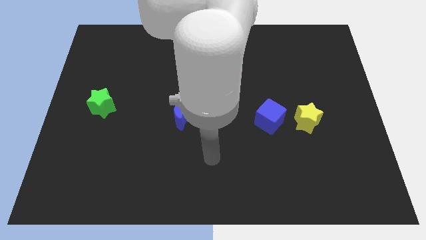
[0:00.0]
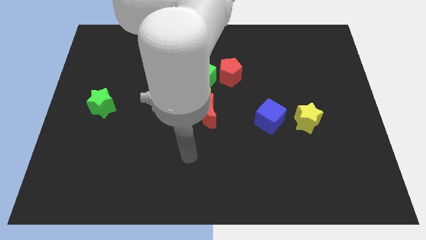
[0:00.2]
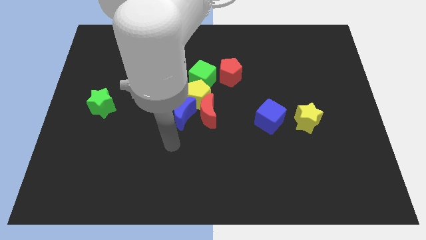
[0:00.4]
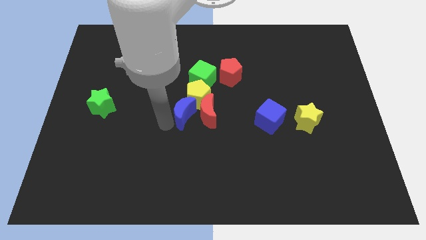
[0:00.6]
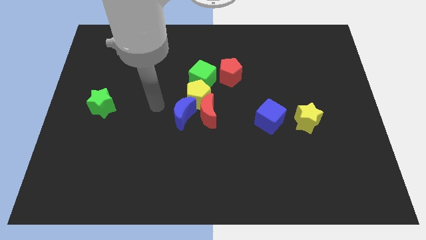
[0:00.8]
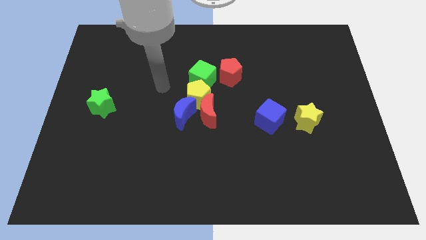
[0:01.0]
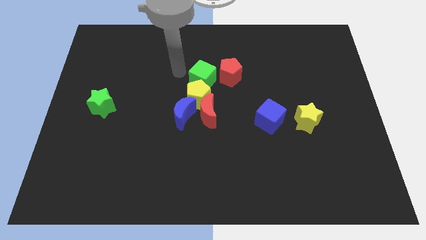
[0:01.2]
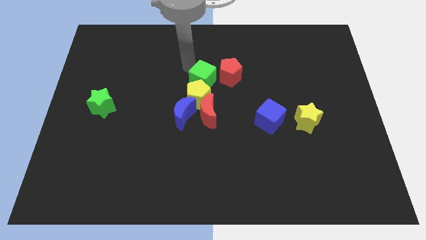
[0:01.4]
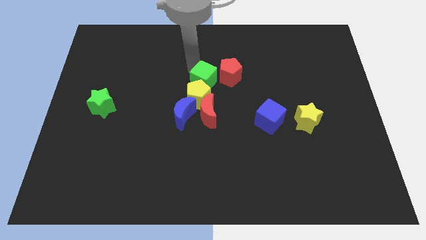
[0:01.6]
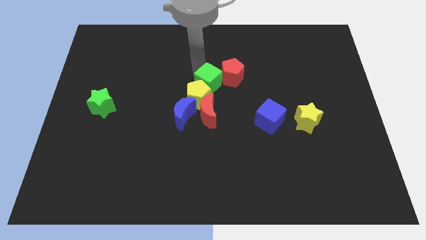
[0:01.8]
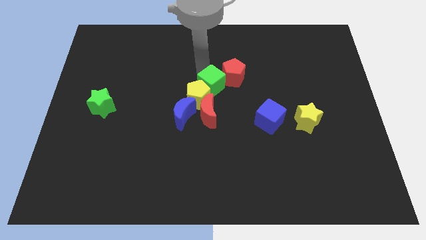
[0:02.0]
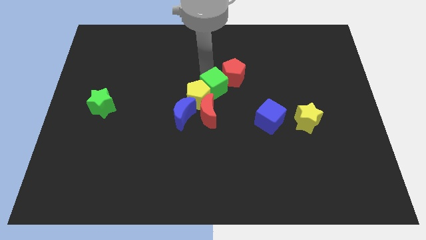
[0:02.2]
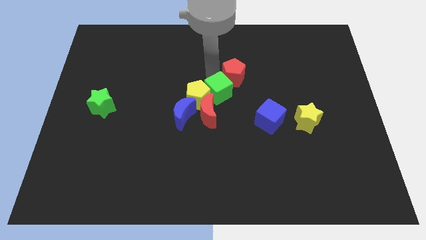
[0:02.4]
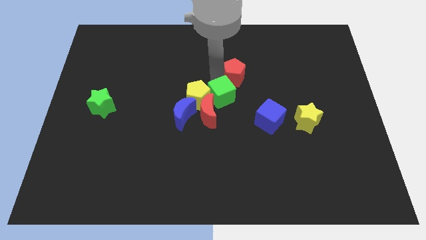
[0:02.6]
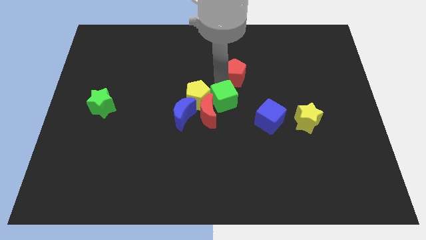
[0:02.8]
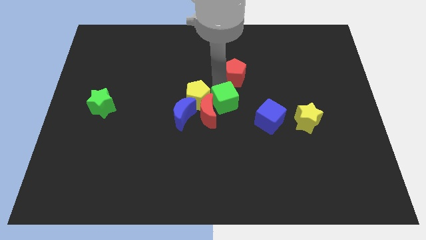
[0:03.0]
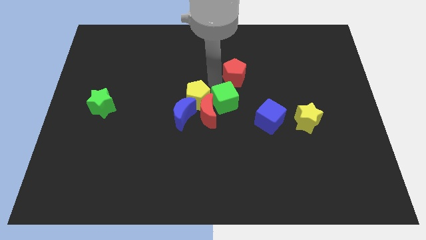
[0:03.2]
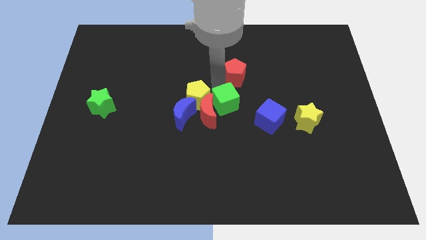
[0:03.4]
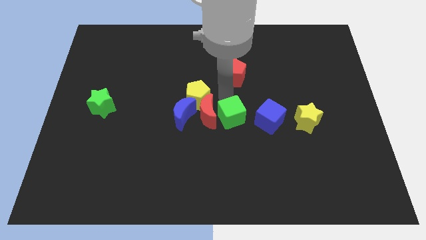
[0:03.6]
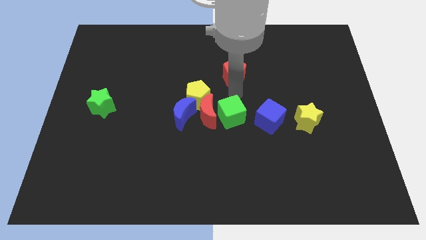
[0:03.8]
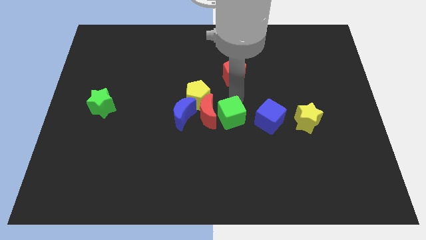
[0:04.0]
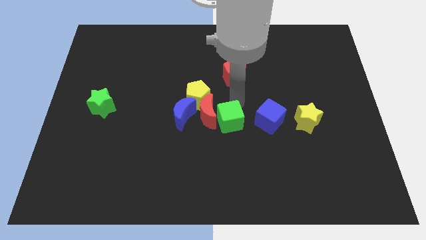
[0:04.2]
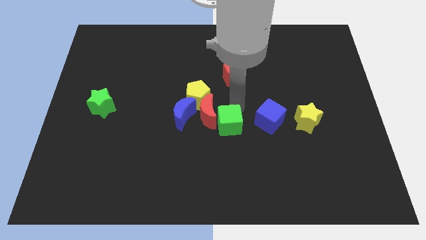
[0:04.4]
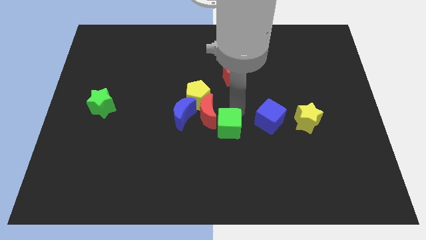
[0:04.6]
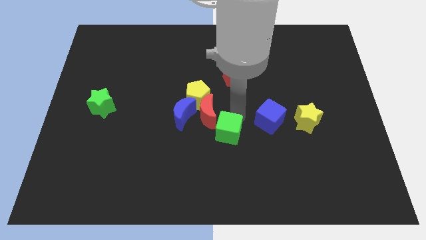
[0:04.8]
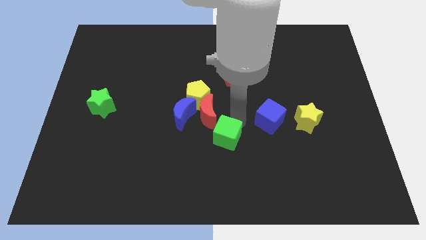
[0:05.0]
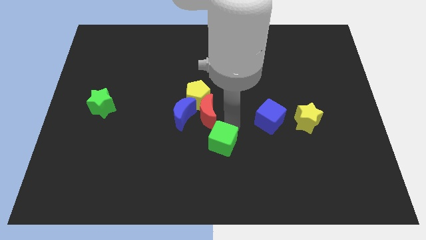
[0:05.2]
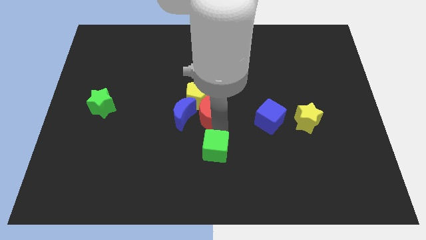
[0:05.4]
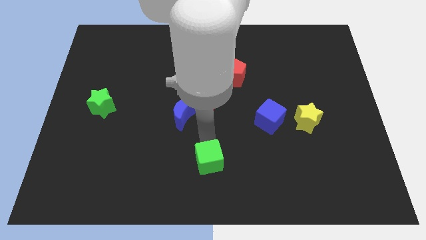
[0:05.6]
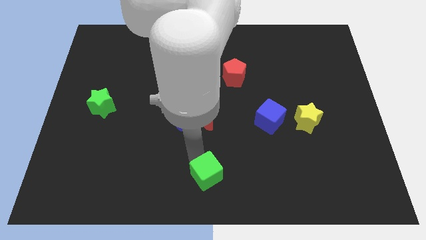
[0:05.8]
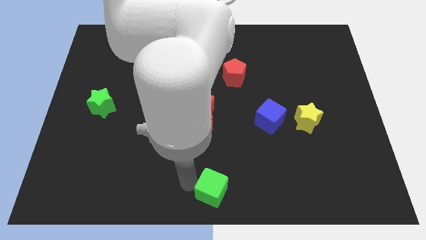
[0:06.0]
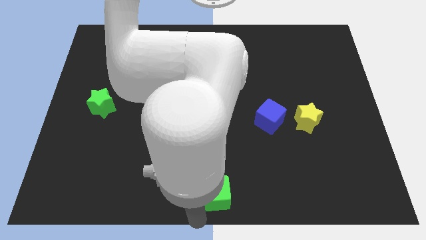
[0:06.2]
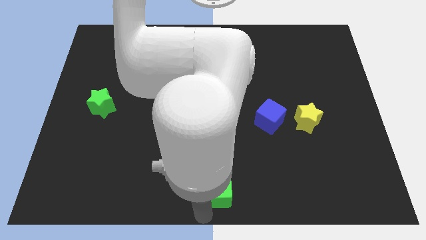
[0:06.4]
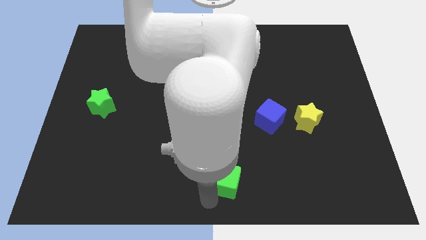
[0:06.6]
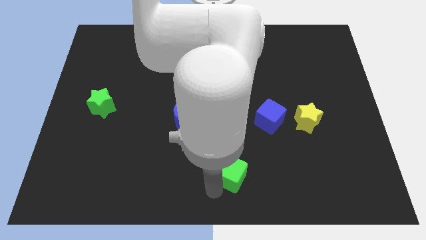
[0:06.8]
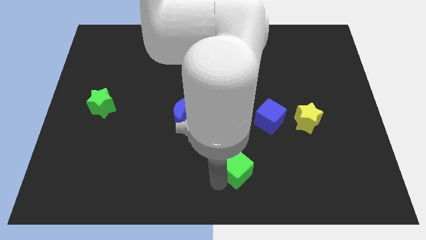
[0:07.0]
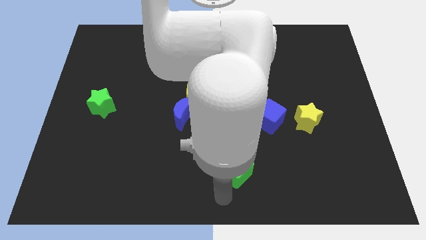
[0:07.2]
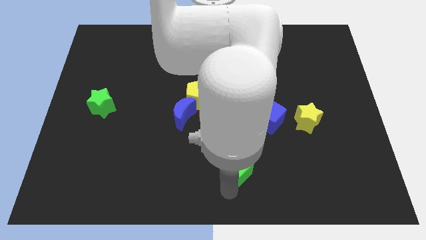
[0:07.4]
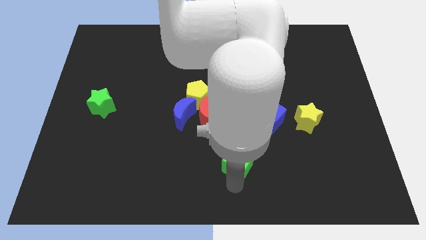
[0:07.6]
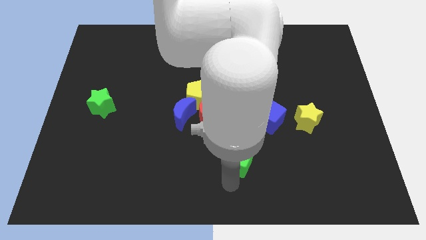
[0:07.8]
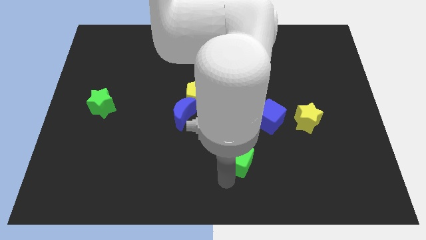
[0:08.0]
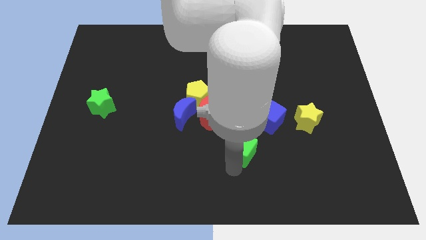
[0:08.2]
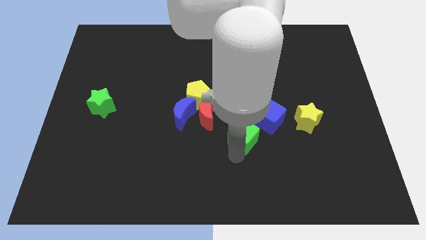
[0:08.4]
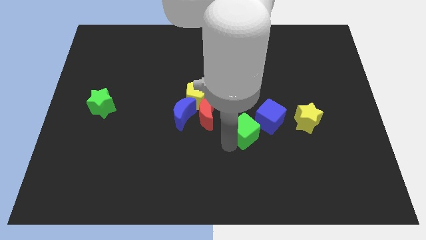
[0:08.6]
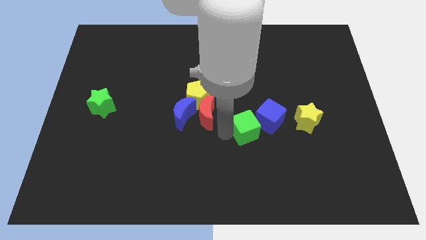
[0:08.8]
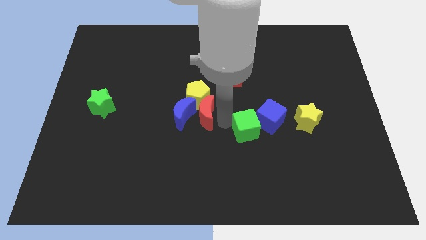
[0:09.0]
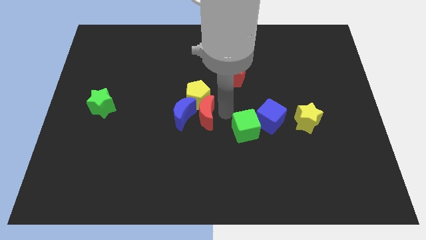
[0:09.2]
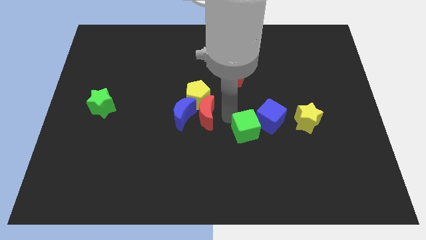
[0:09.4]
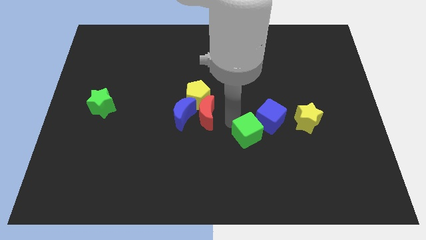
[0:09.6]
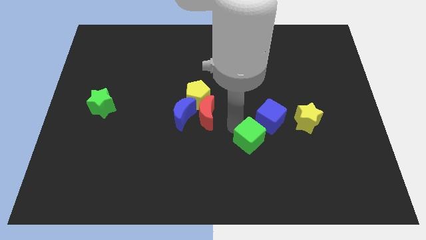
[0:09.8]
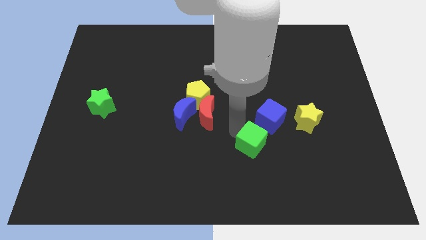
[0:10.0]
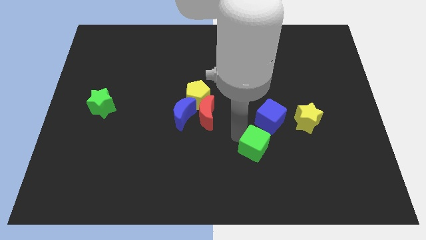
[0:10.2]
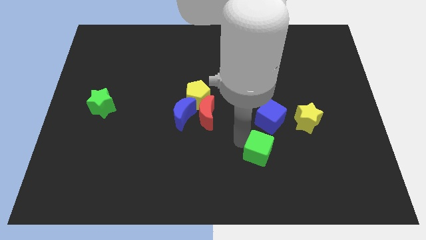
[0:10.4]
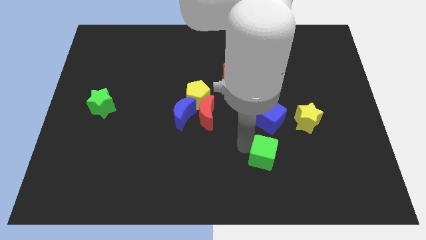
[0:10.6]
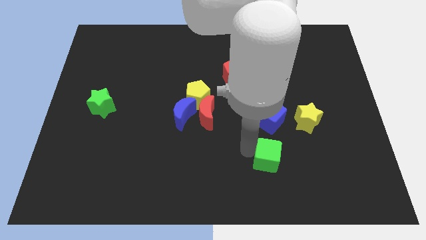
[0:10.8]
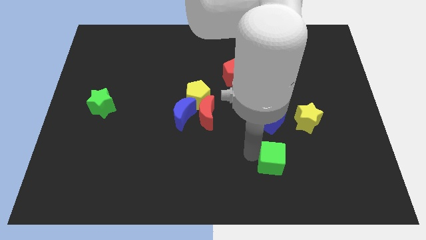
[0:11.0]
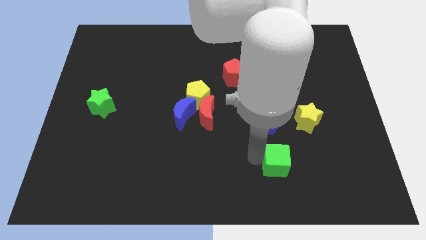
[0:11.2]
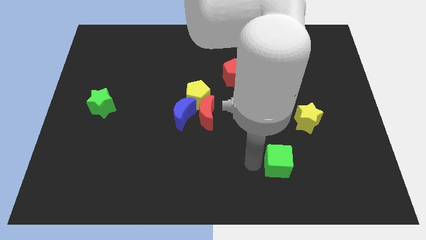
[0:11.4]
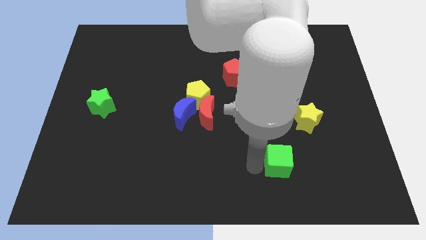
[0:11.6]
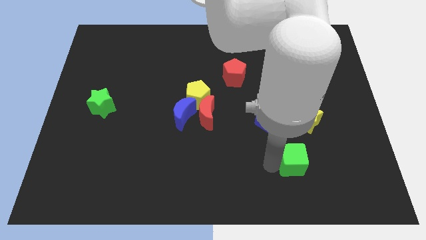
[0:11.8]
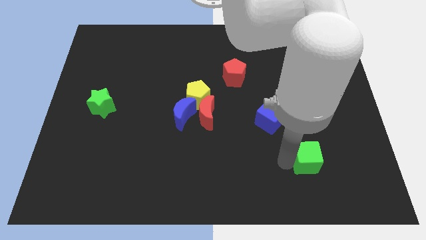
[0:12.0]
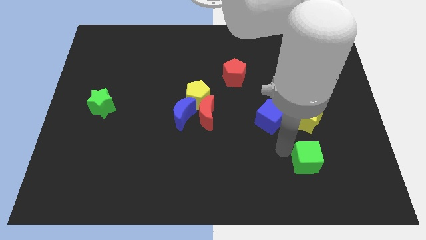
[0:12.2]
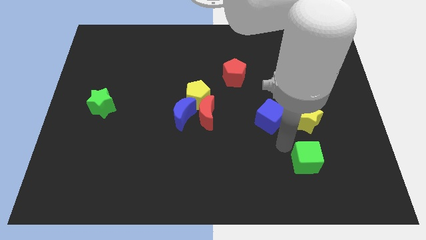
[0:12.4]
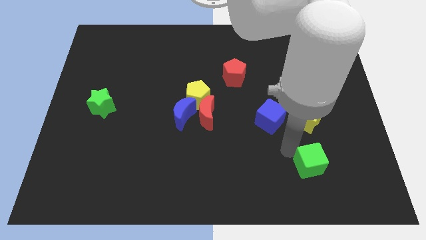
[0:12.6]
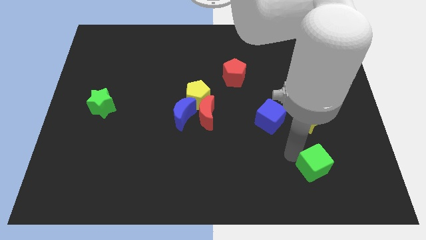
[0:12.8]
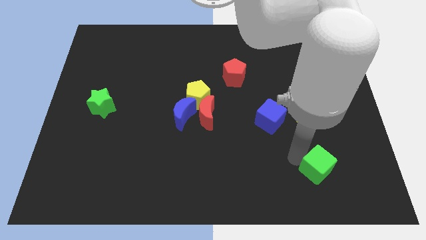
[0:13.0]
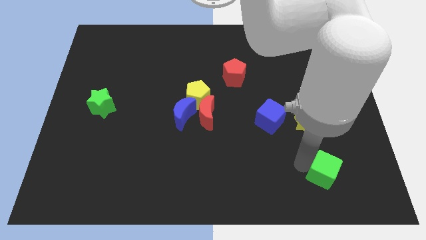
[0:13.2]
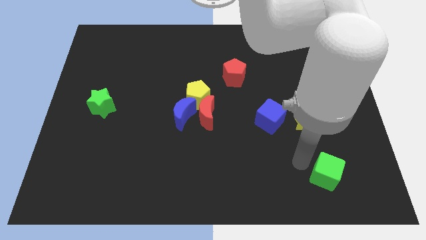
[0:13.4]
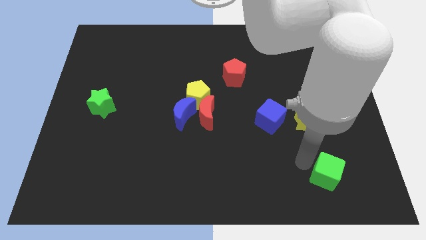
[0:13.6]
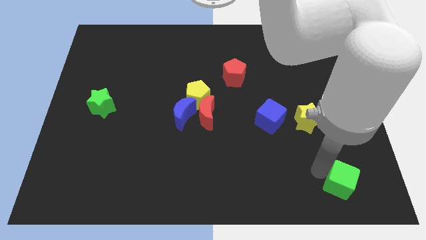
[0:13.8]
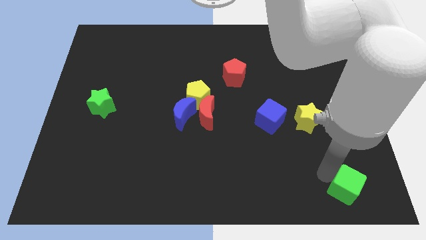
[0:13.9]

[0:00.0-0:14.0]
move the green cube to the bottom right of the board
